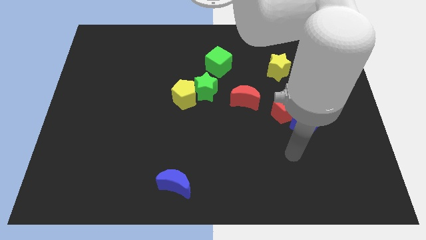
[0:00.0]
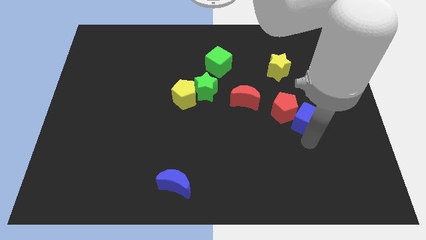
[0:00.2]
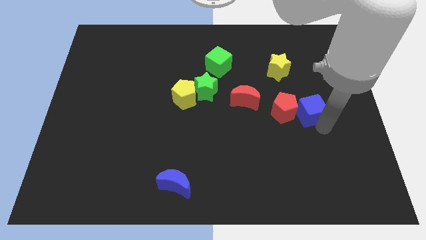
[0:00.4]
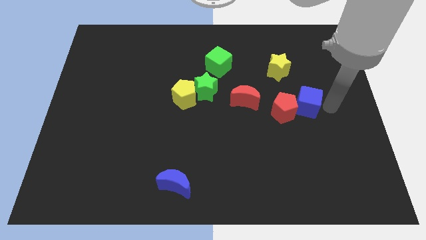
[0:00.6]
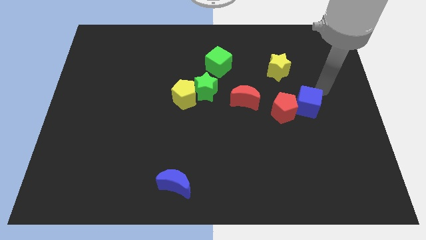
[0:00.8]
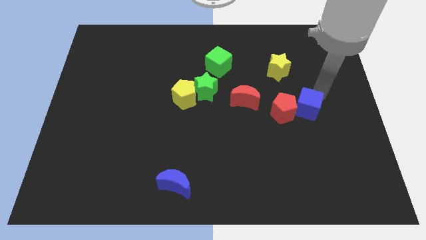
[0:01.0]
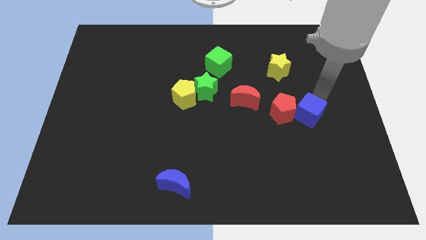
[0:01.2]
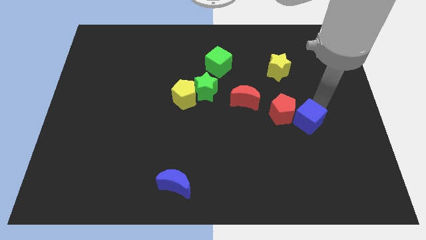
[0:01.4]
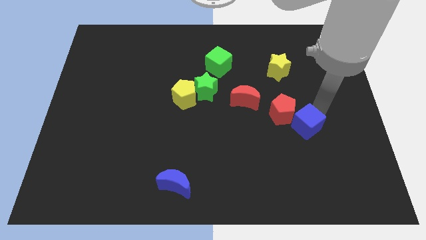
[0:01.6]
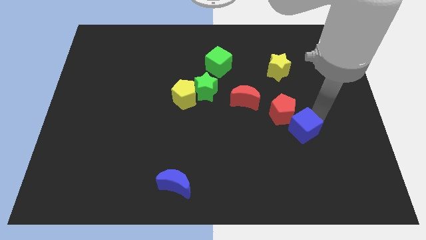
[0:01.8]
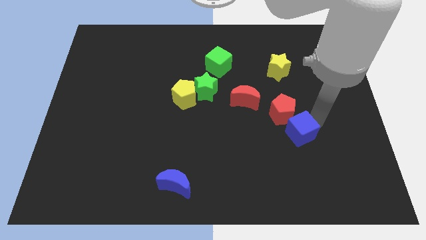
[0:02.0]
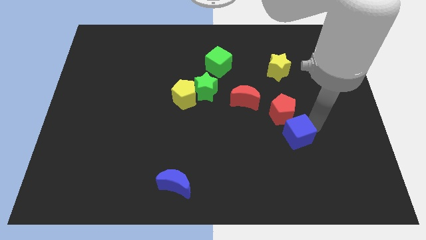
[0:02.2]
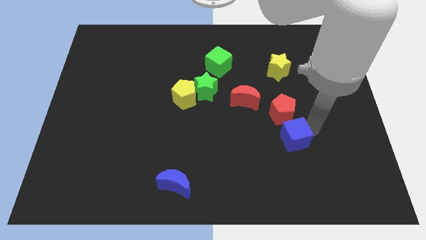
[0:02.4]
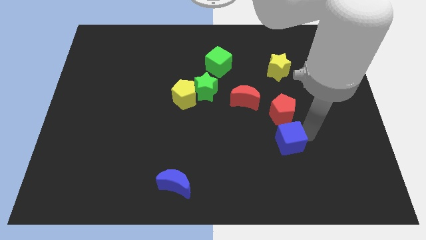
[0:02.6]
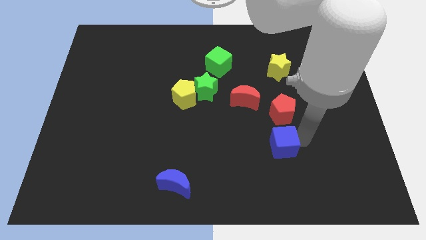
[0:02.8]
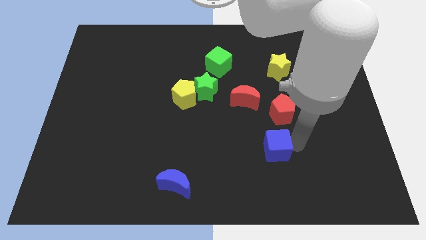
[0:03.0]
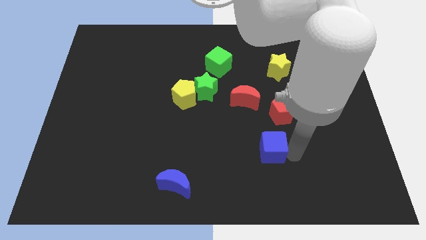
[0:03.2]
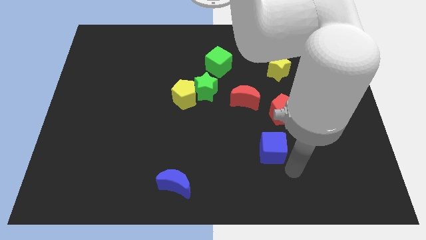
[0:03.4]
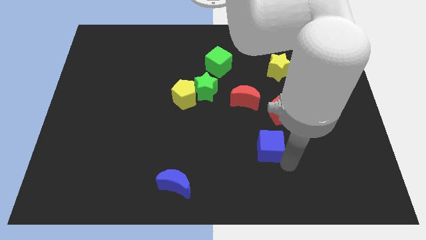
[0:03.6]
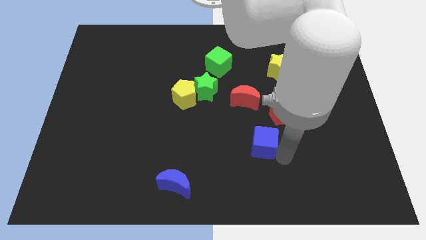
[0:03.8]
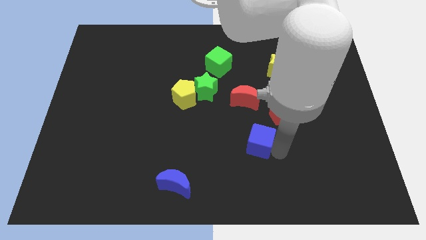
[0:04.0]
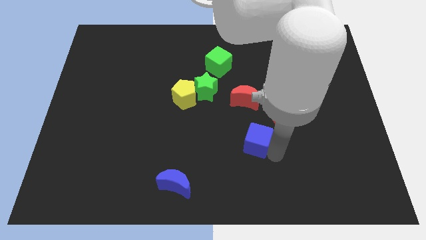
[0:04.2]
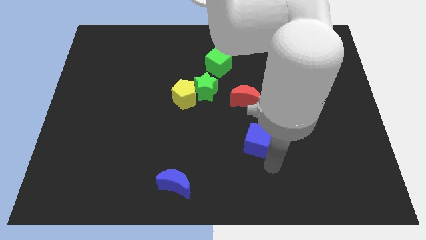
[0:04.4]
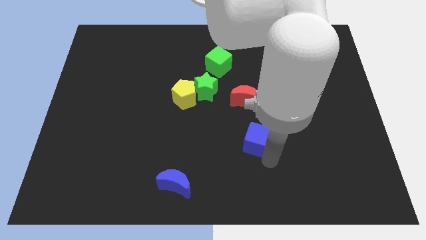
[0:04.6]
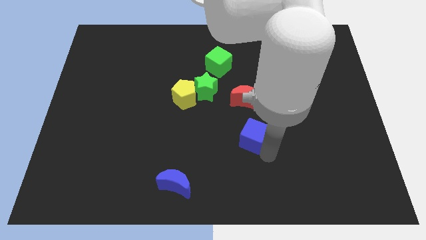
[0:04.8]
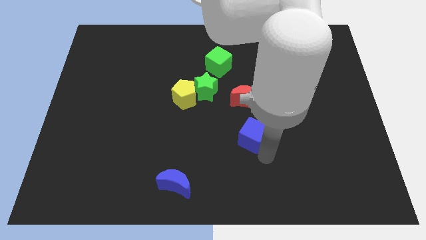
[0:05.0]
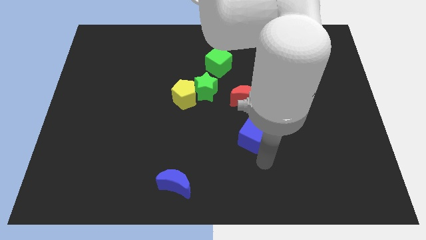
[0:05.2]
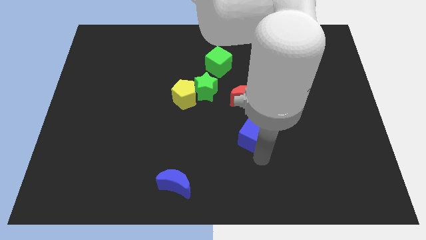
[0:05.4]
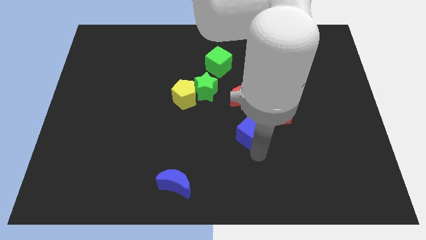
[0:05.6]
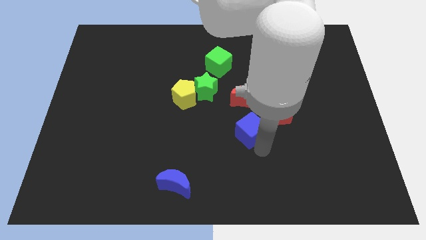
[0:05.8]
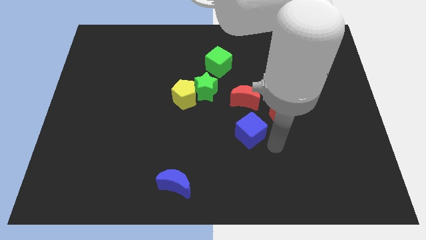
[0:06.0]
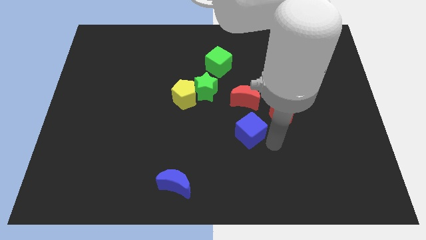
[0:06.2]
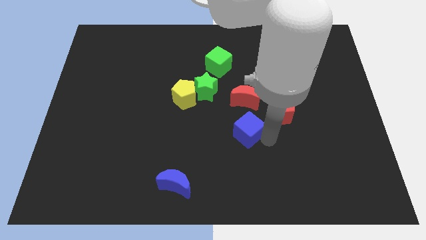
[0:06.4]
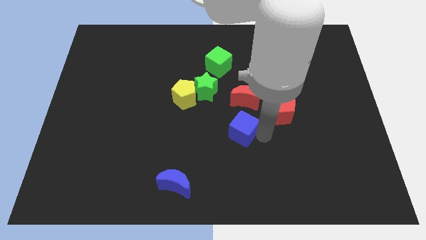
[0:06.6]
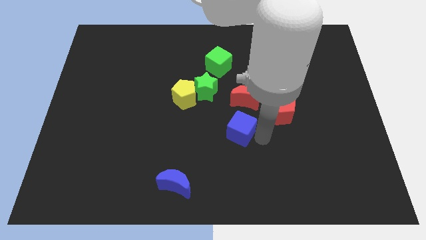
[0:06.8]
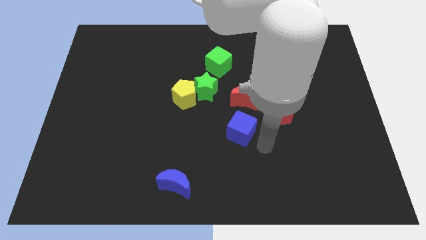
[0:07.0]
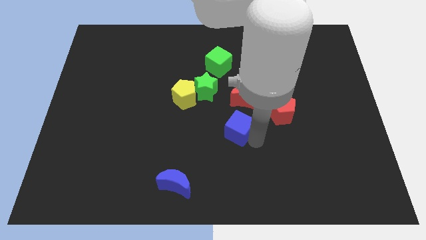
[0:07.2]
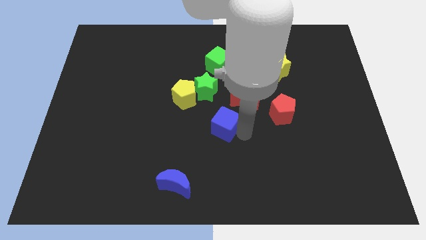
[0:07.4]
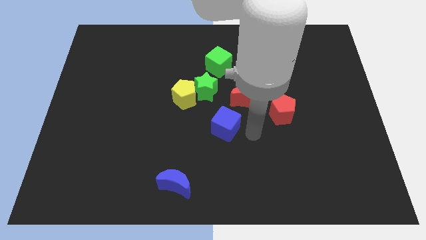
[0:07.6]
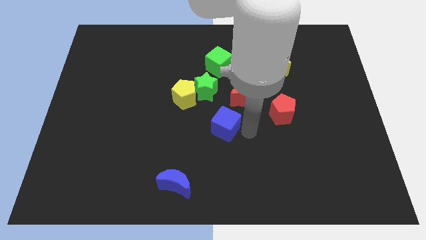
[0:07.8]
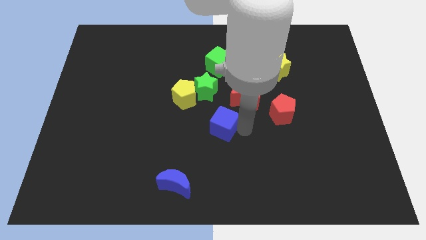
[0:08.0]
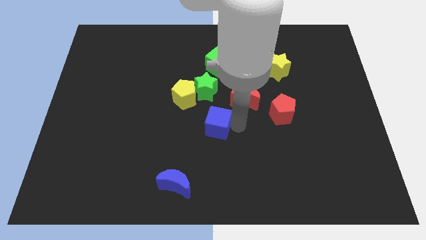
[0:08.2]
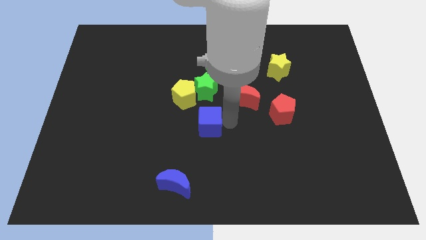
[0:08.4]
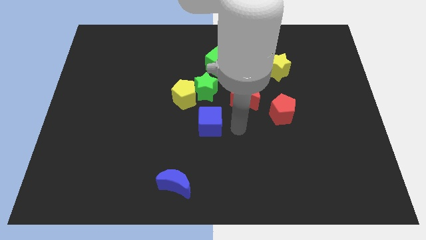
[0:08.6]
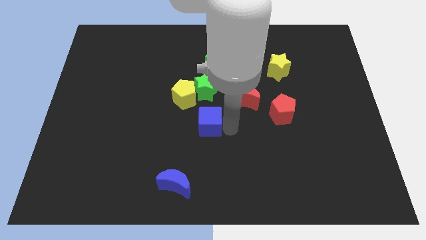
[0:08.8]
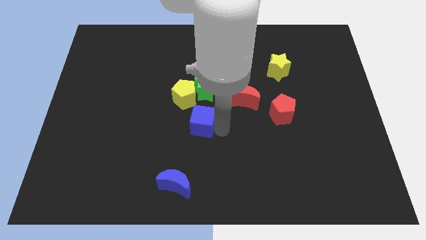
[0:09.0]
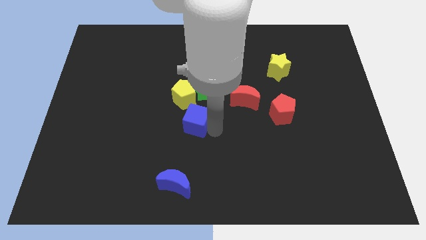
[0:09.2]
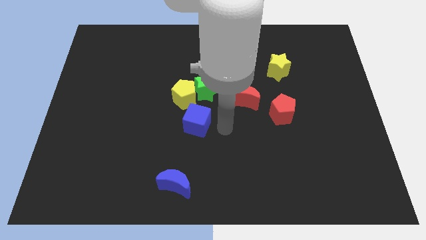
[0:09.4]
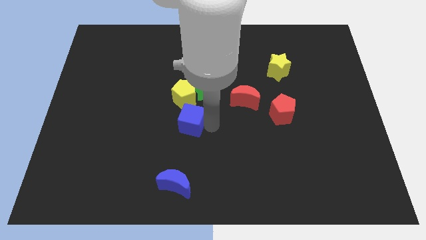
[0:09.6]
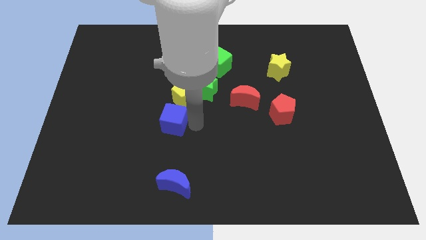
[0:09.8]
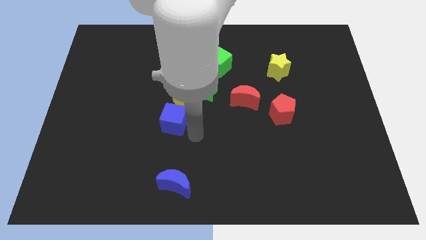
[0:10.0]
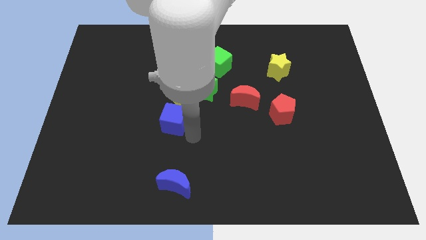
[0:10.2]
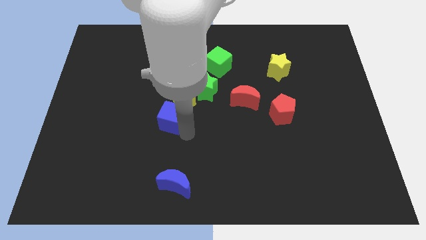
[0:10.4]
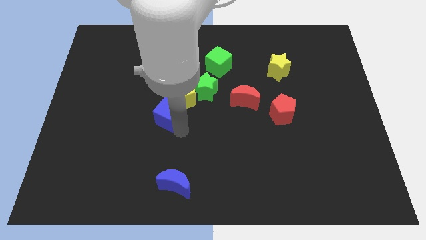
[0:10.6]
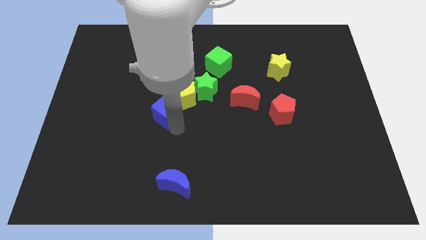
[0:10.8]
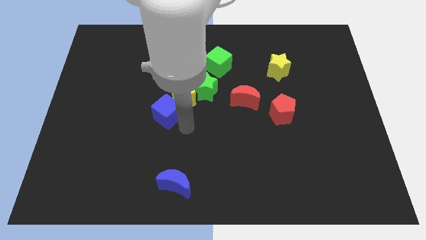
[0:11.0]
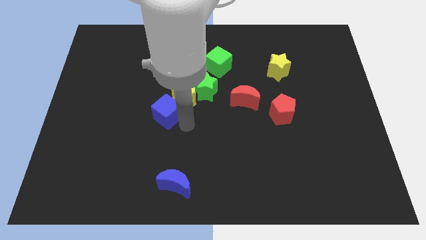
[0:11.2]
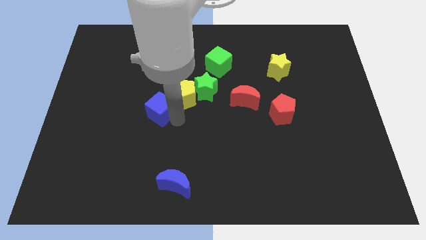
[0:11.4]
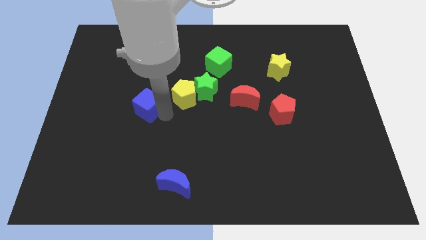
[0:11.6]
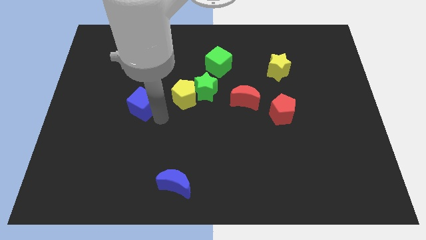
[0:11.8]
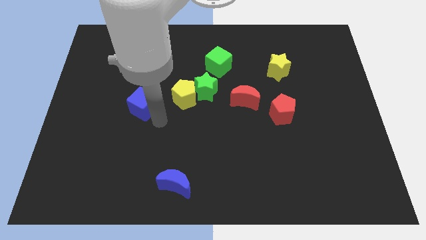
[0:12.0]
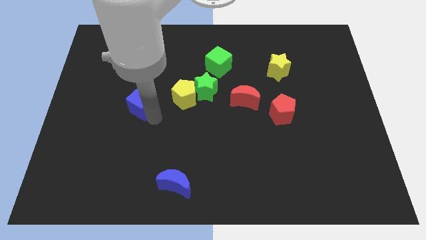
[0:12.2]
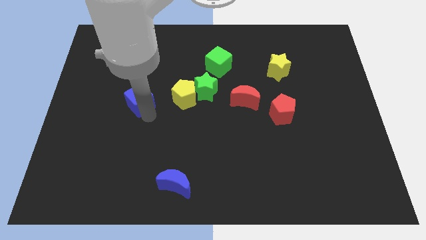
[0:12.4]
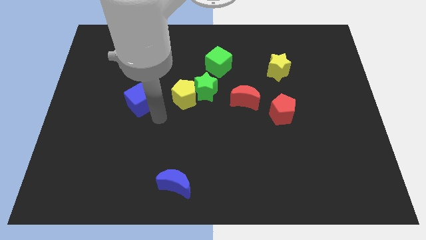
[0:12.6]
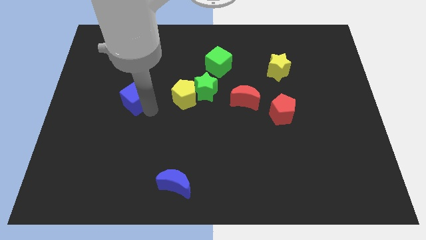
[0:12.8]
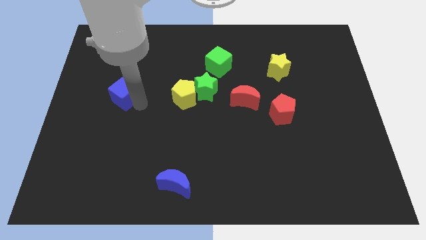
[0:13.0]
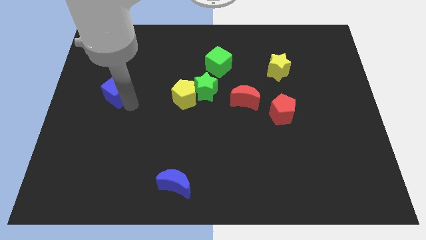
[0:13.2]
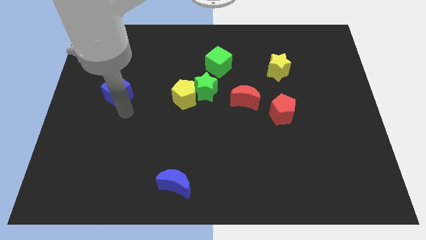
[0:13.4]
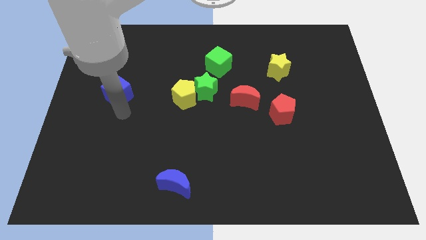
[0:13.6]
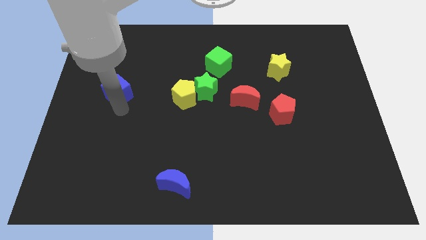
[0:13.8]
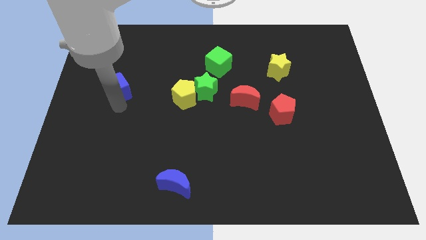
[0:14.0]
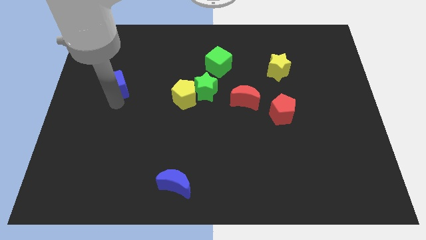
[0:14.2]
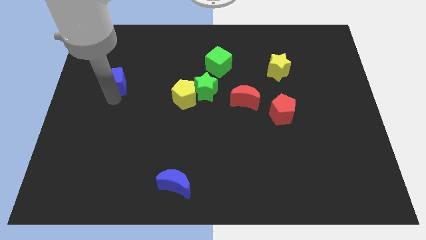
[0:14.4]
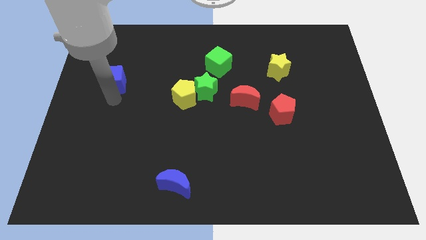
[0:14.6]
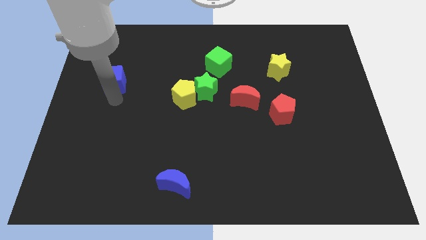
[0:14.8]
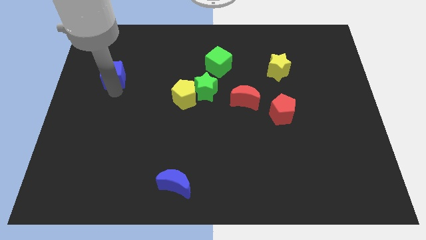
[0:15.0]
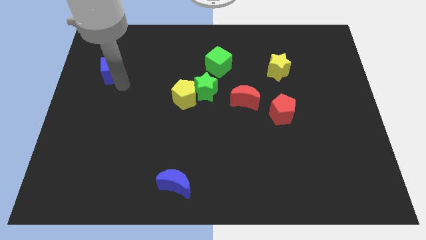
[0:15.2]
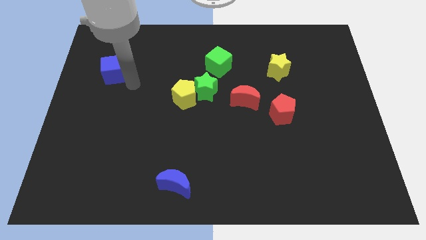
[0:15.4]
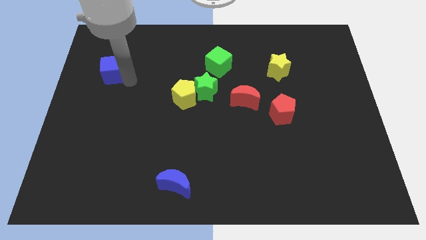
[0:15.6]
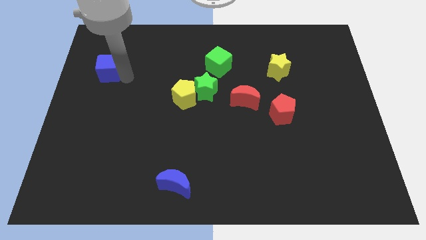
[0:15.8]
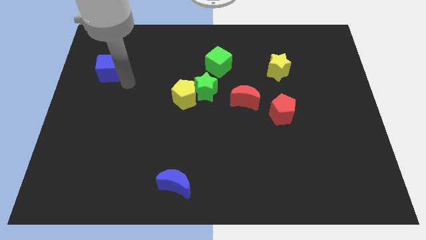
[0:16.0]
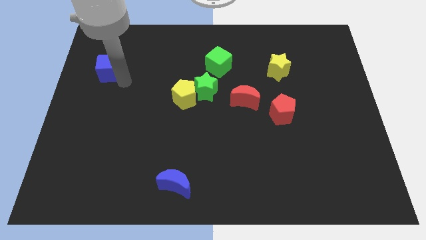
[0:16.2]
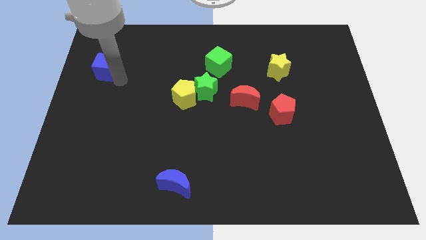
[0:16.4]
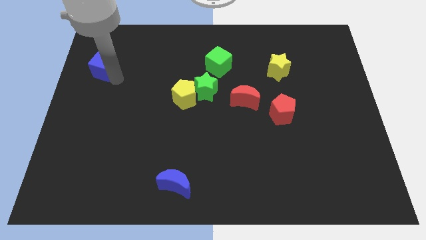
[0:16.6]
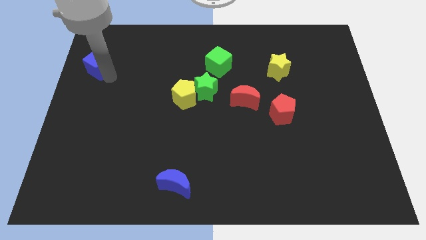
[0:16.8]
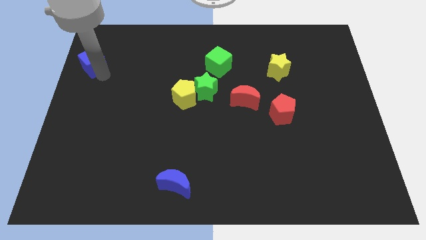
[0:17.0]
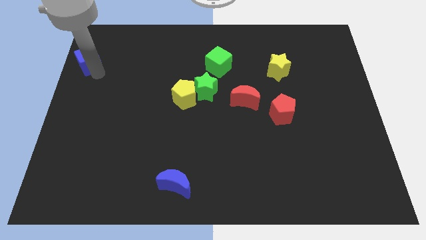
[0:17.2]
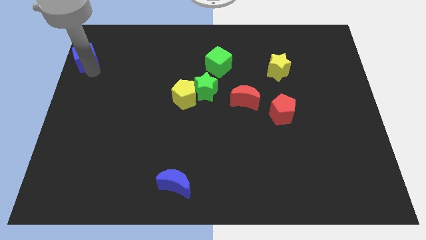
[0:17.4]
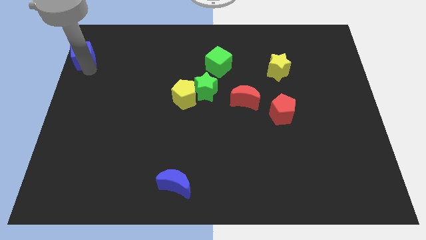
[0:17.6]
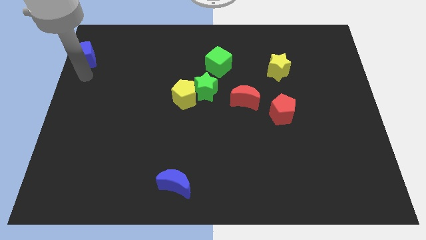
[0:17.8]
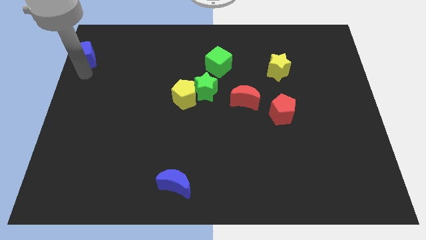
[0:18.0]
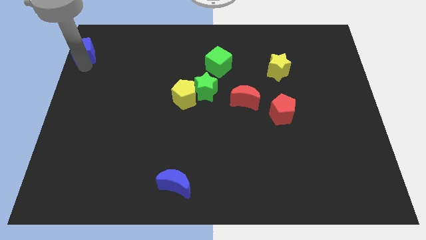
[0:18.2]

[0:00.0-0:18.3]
put the blue cube to the upper left corner
